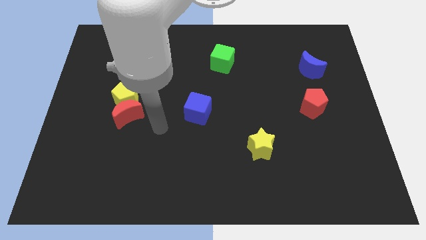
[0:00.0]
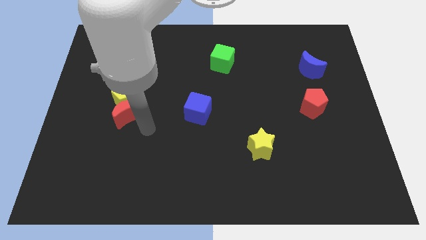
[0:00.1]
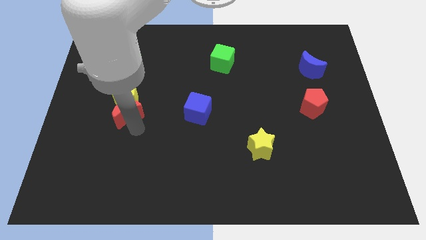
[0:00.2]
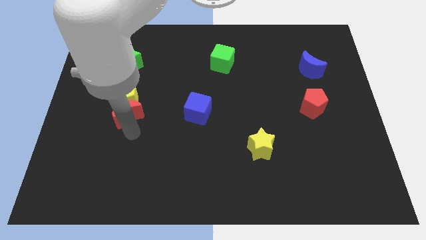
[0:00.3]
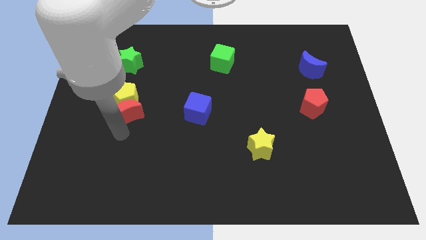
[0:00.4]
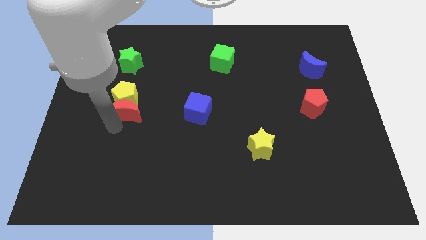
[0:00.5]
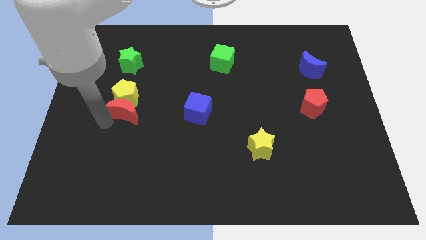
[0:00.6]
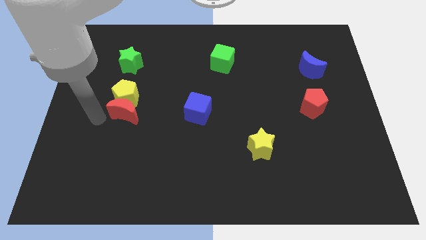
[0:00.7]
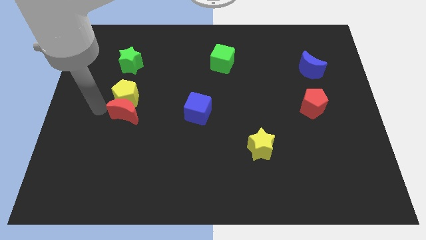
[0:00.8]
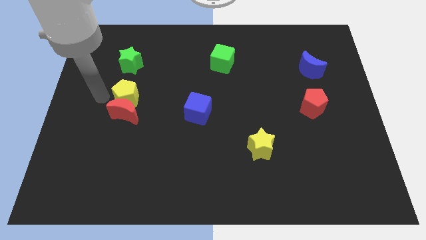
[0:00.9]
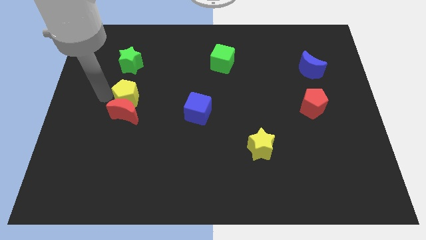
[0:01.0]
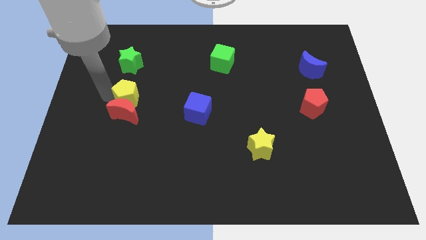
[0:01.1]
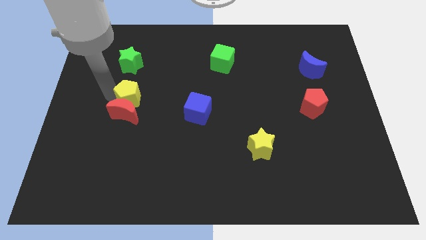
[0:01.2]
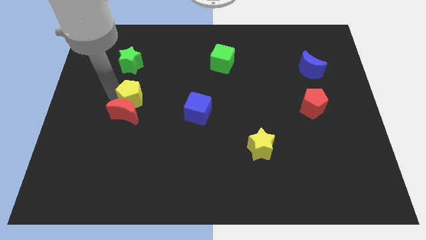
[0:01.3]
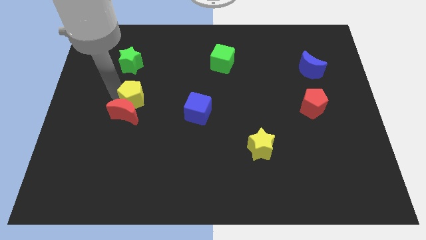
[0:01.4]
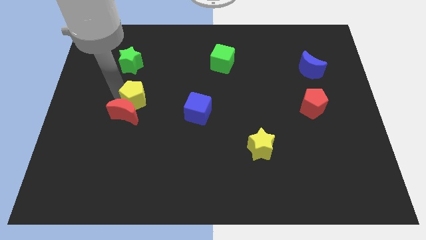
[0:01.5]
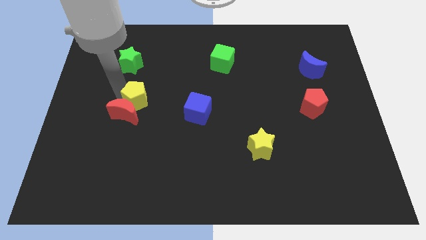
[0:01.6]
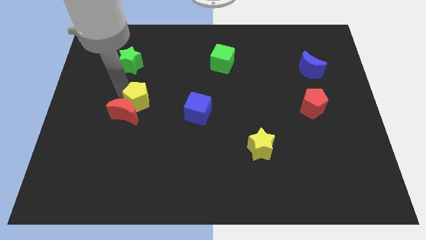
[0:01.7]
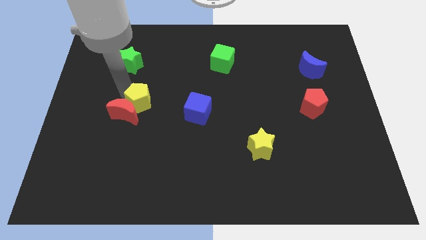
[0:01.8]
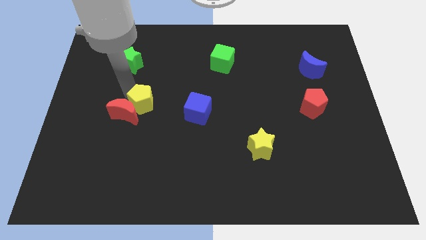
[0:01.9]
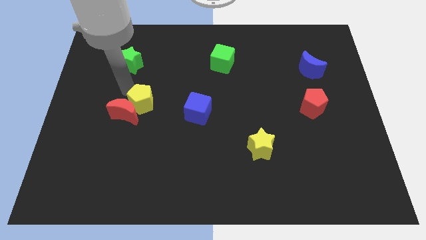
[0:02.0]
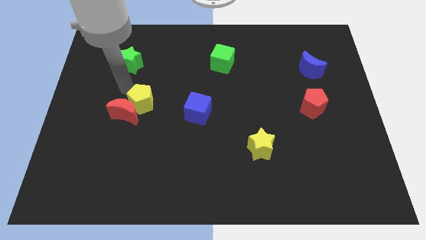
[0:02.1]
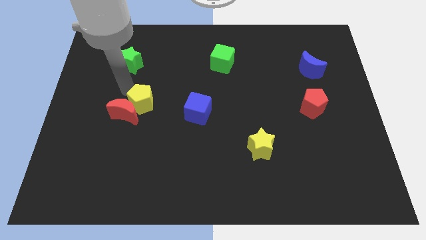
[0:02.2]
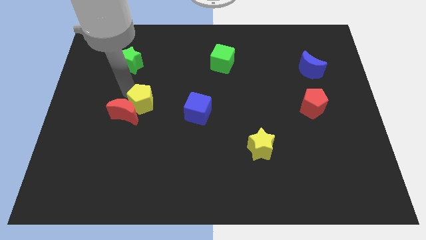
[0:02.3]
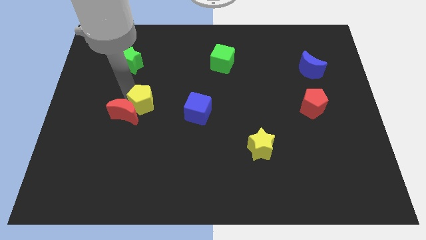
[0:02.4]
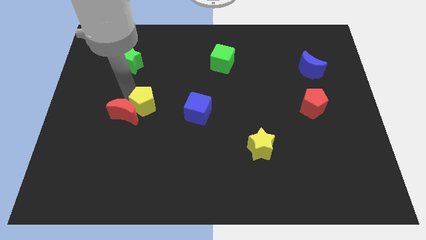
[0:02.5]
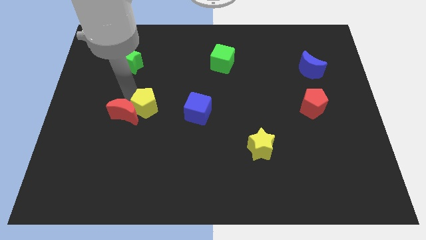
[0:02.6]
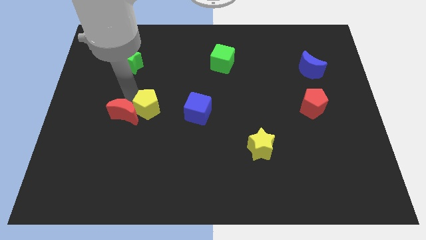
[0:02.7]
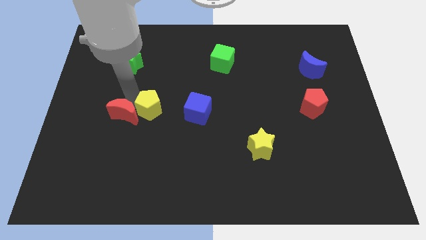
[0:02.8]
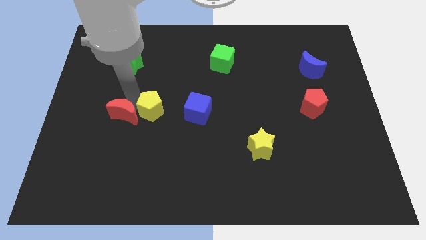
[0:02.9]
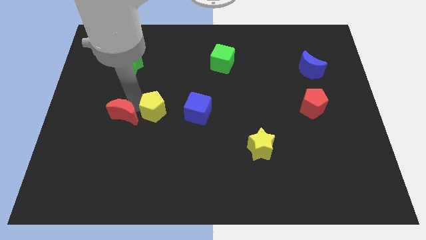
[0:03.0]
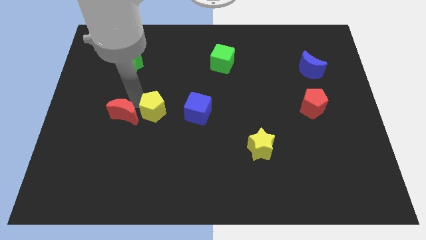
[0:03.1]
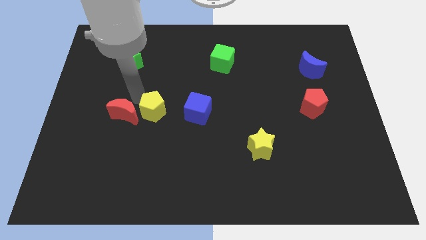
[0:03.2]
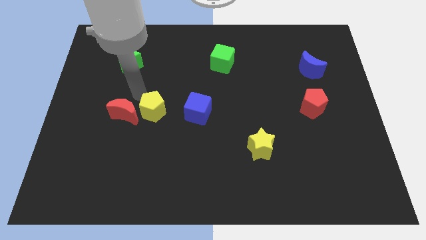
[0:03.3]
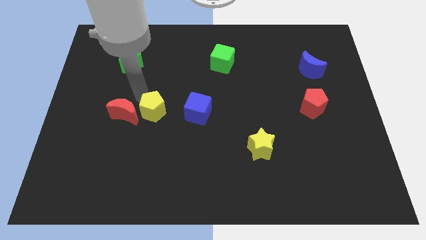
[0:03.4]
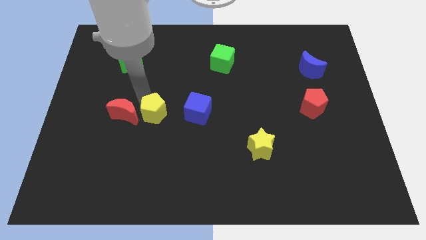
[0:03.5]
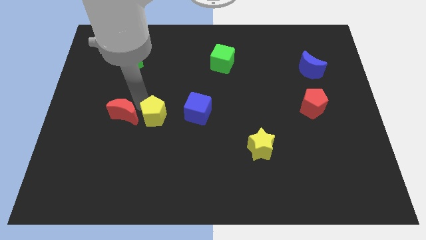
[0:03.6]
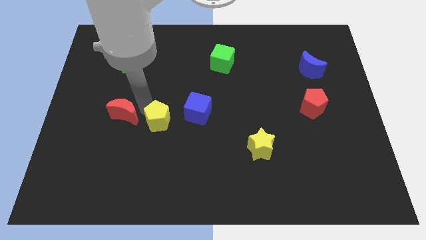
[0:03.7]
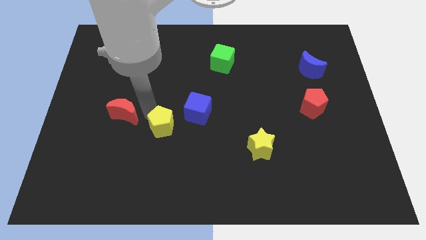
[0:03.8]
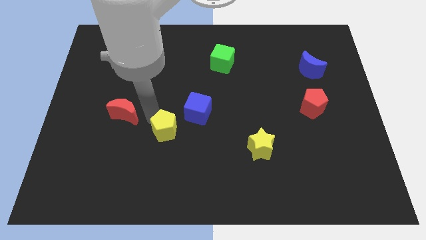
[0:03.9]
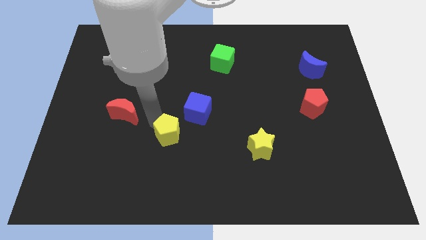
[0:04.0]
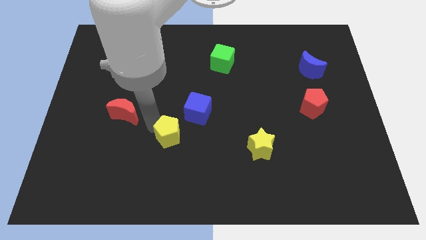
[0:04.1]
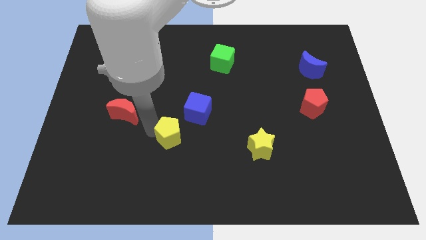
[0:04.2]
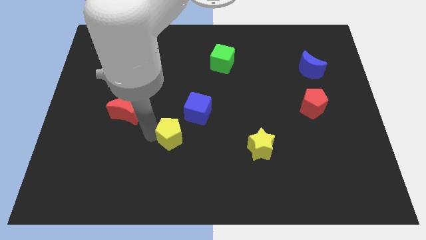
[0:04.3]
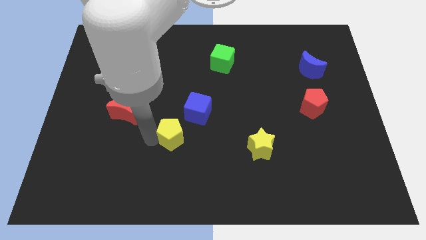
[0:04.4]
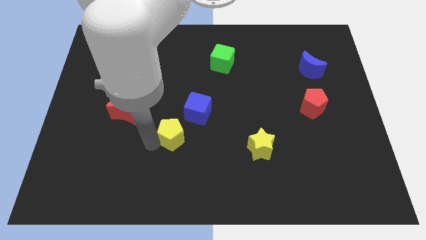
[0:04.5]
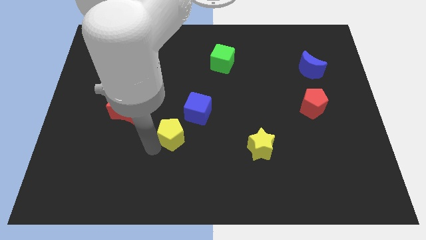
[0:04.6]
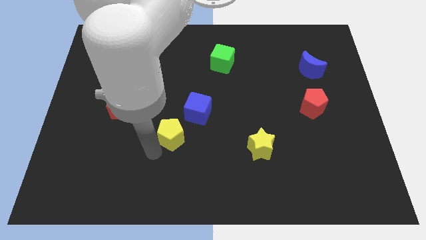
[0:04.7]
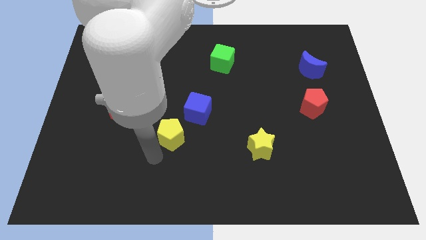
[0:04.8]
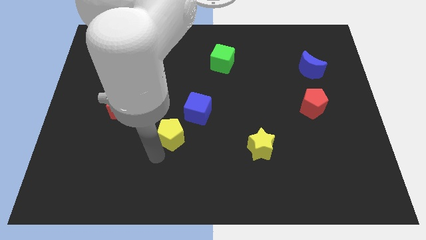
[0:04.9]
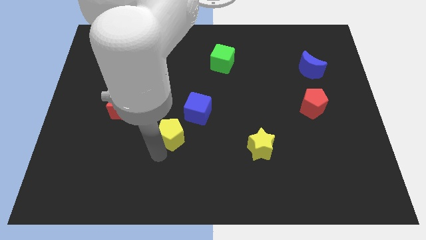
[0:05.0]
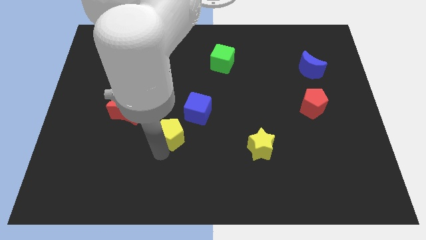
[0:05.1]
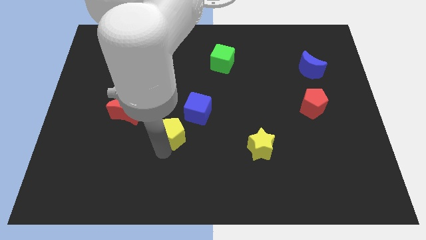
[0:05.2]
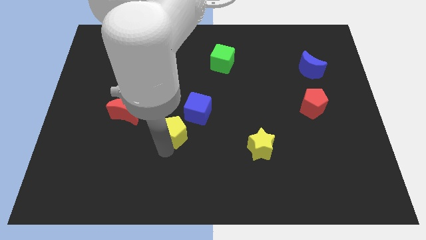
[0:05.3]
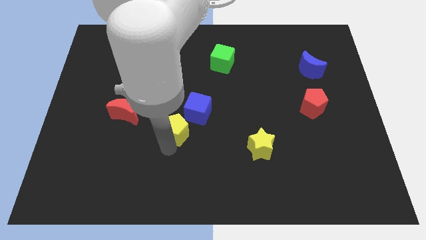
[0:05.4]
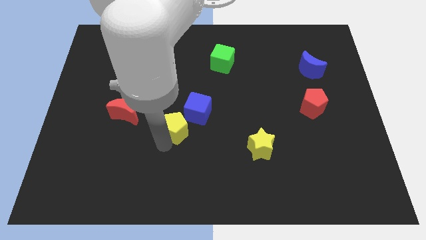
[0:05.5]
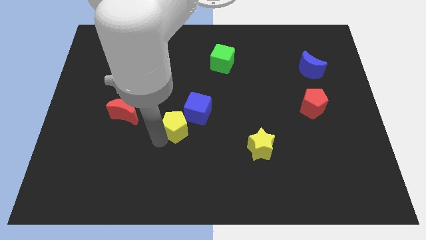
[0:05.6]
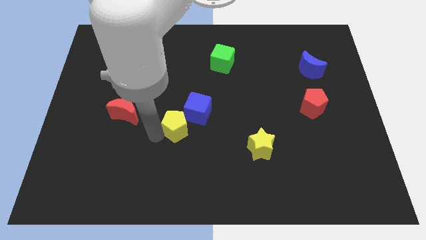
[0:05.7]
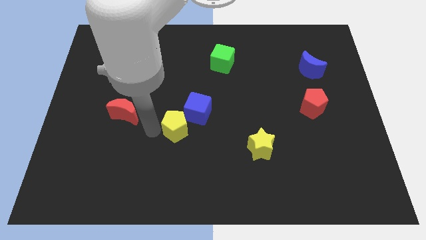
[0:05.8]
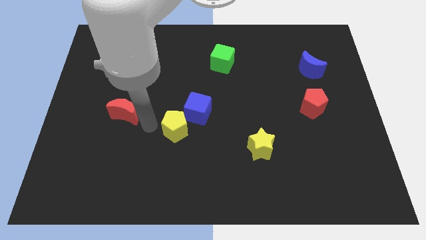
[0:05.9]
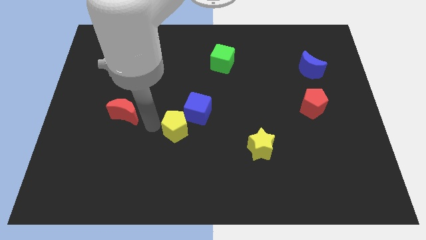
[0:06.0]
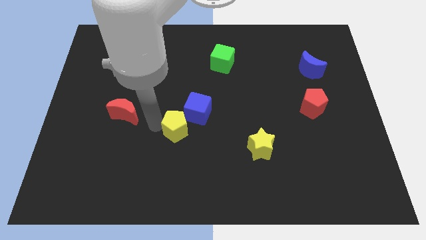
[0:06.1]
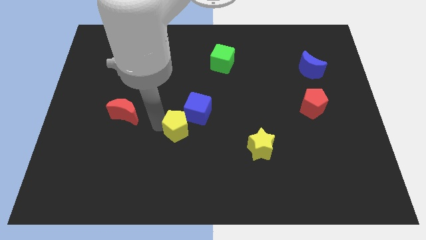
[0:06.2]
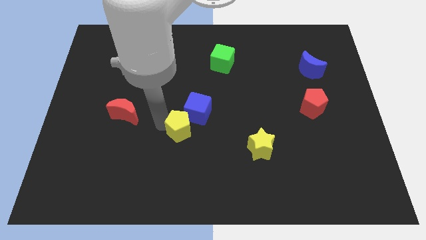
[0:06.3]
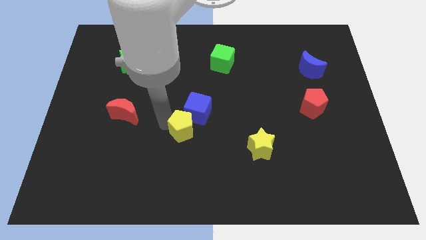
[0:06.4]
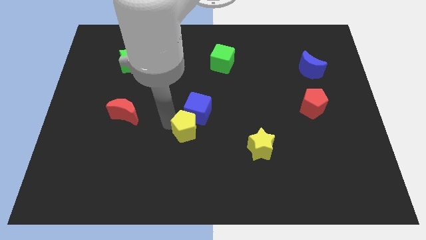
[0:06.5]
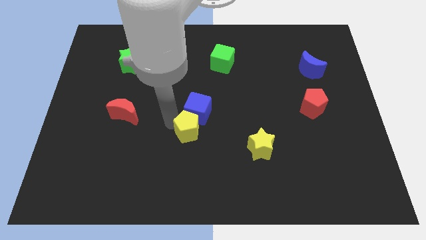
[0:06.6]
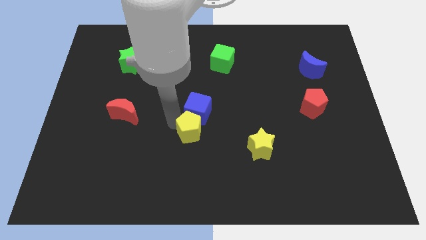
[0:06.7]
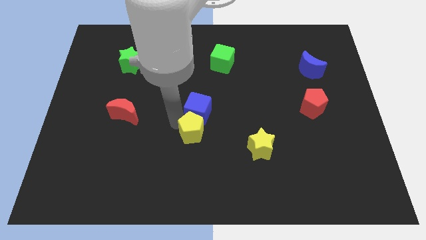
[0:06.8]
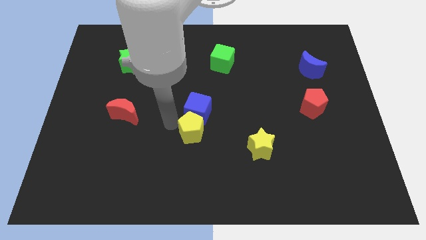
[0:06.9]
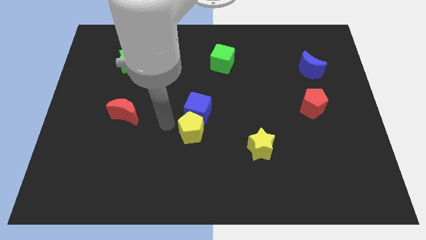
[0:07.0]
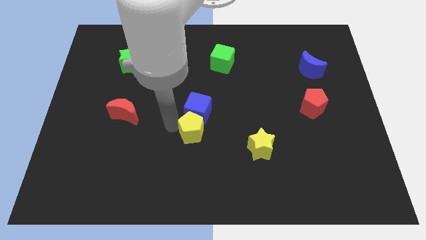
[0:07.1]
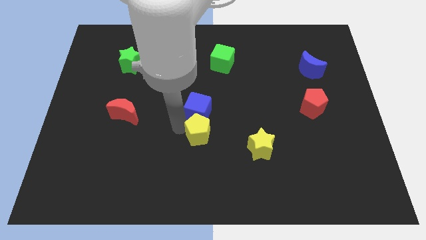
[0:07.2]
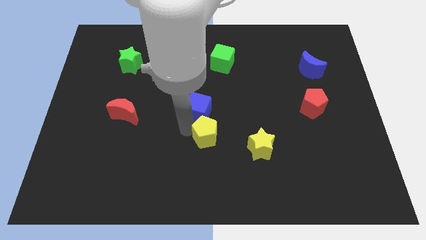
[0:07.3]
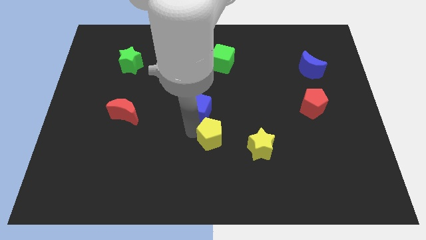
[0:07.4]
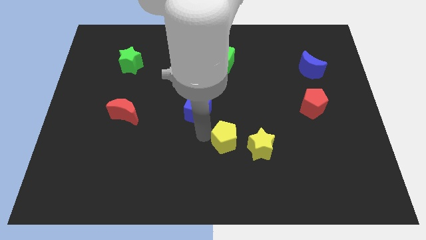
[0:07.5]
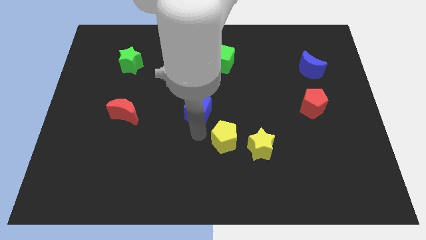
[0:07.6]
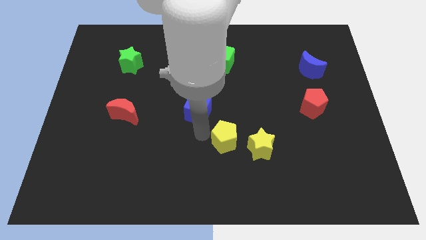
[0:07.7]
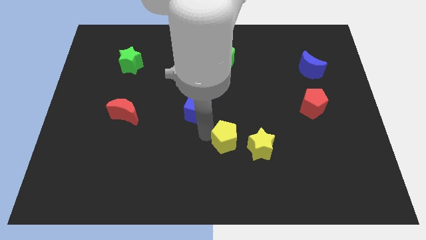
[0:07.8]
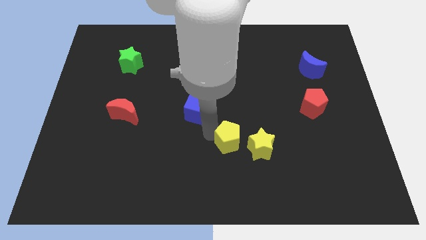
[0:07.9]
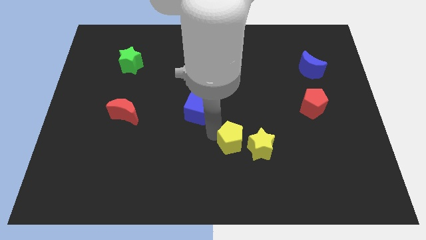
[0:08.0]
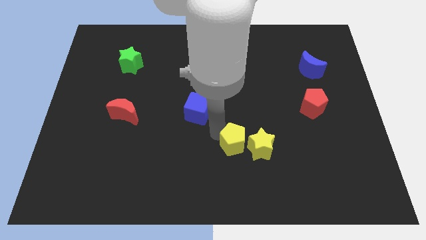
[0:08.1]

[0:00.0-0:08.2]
put the yellow pentagon towards the yellow star
